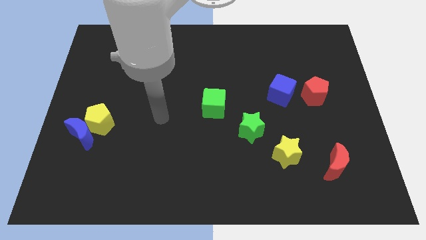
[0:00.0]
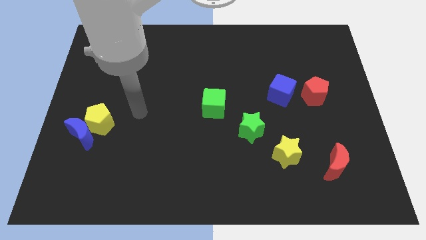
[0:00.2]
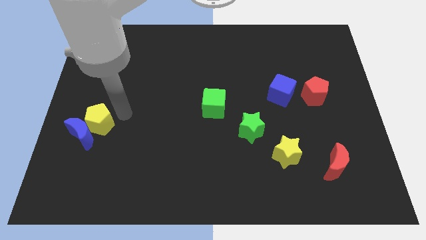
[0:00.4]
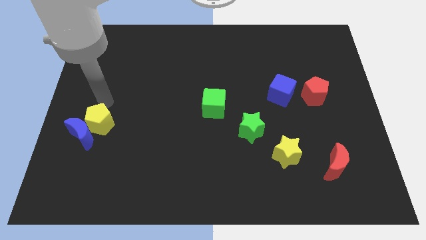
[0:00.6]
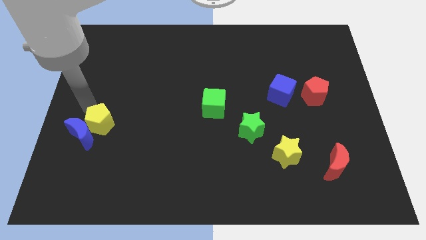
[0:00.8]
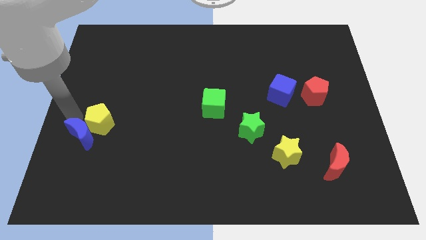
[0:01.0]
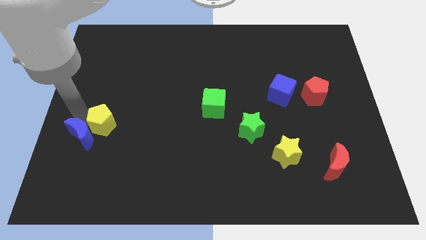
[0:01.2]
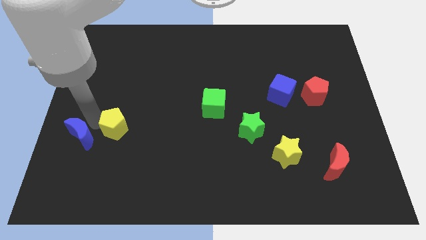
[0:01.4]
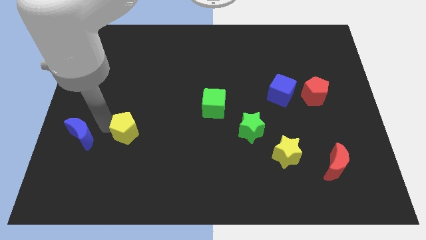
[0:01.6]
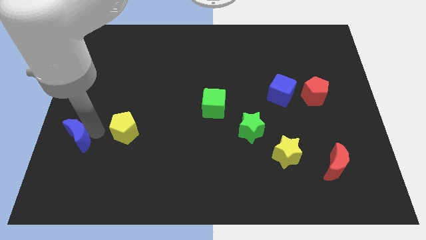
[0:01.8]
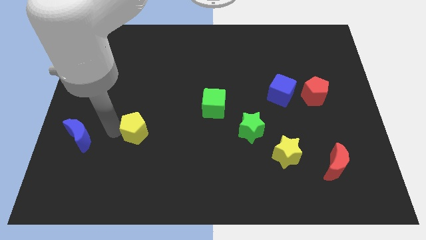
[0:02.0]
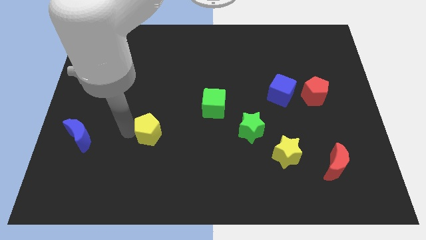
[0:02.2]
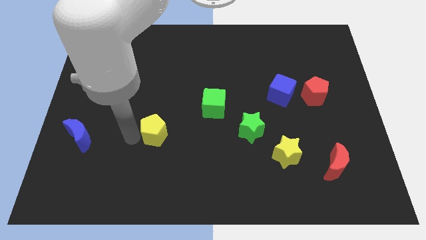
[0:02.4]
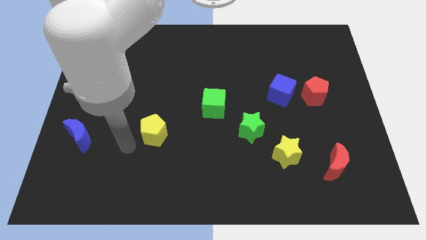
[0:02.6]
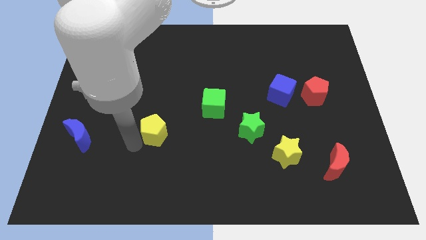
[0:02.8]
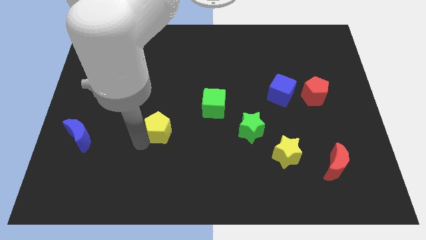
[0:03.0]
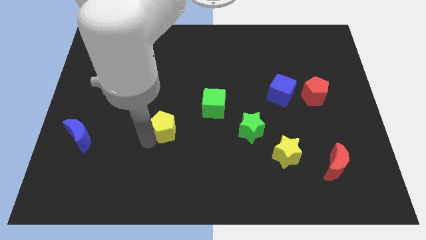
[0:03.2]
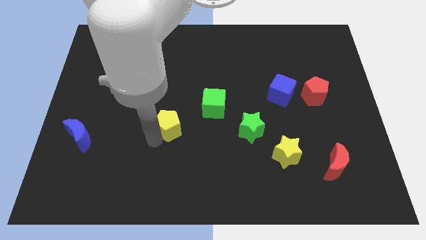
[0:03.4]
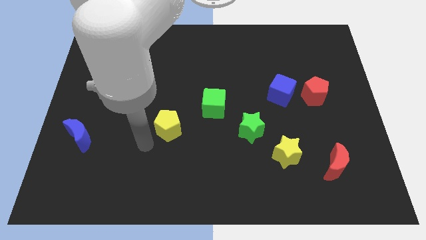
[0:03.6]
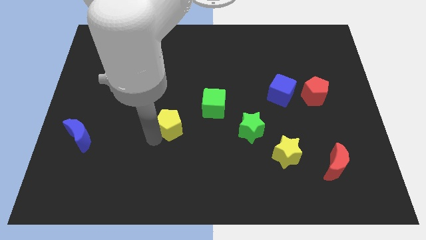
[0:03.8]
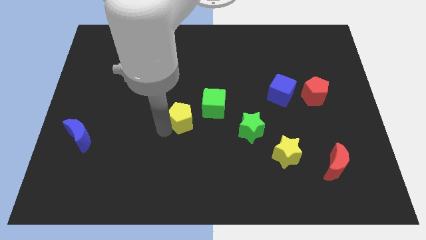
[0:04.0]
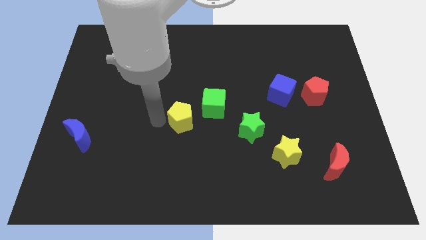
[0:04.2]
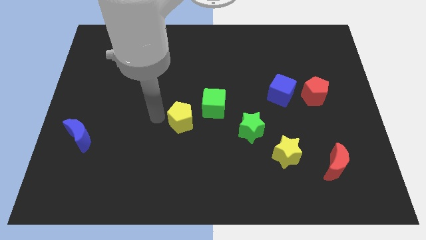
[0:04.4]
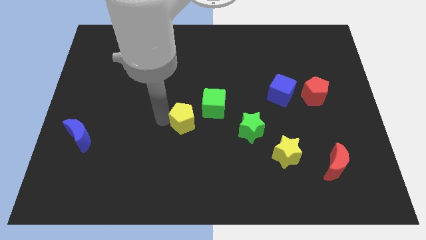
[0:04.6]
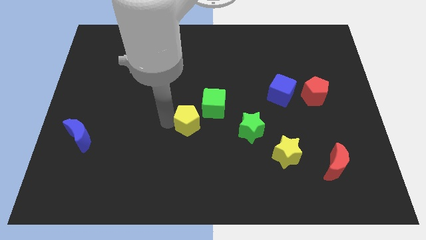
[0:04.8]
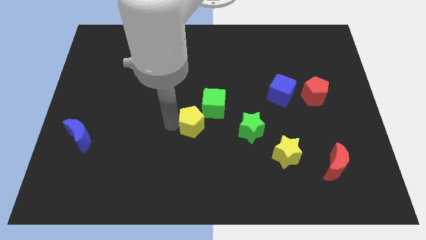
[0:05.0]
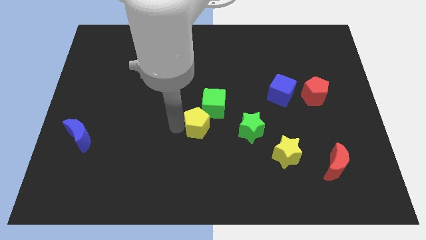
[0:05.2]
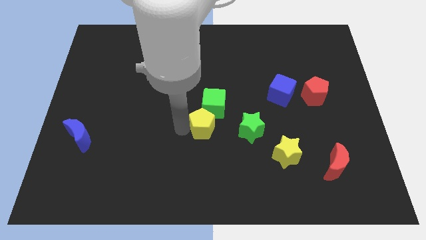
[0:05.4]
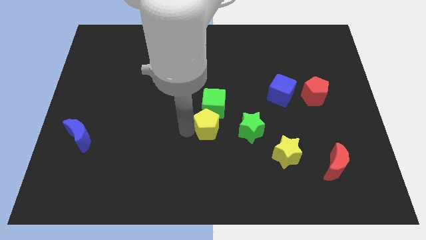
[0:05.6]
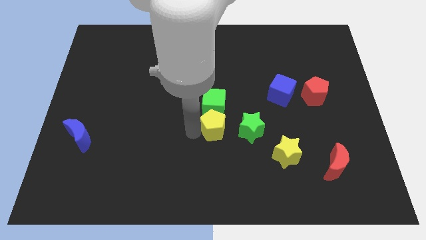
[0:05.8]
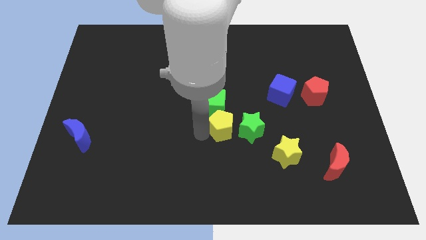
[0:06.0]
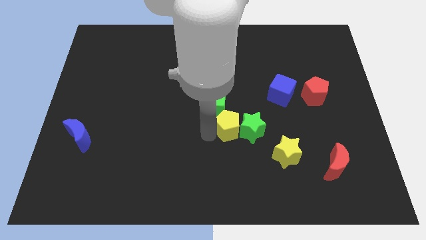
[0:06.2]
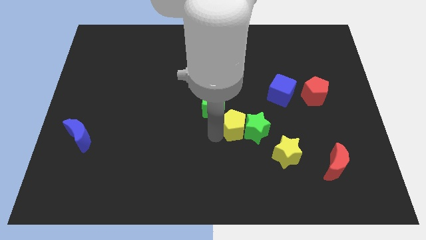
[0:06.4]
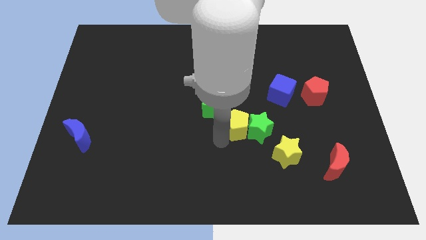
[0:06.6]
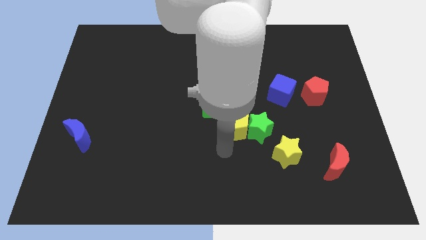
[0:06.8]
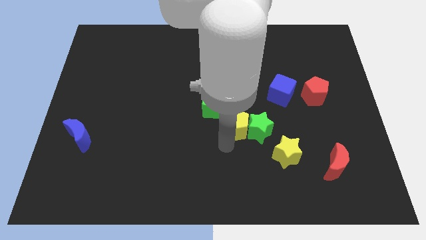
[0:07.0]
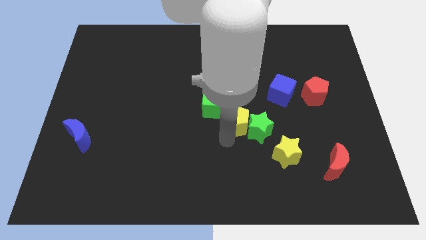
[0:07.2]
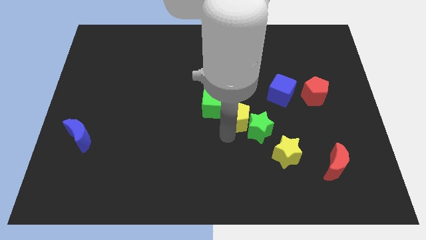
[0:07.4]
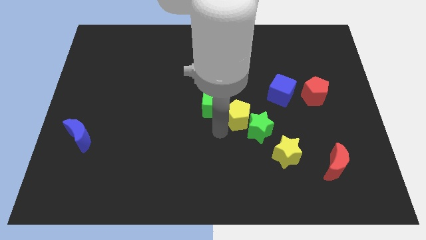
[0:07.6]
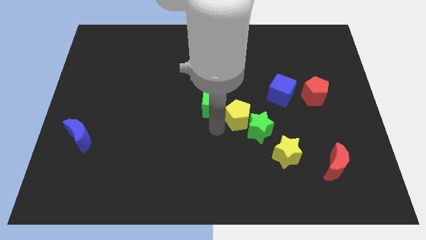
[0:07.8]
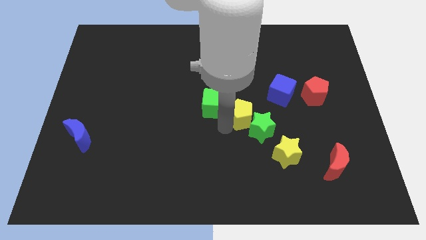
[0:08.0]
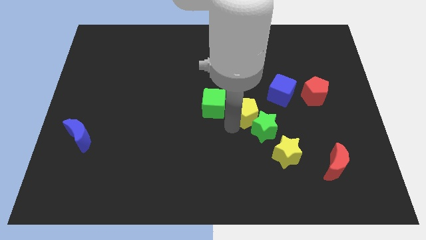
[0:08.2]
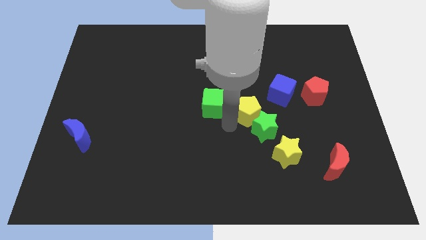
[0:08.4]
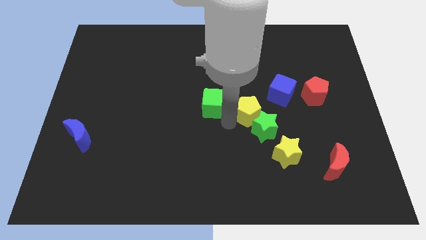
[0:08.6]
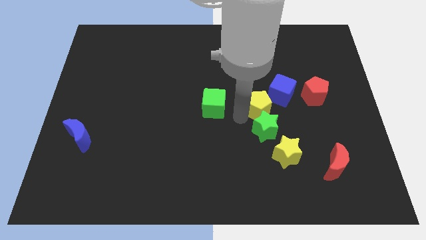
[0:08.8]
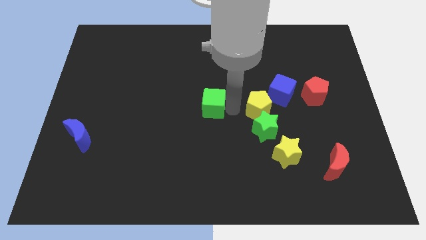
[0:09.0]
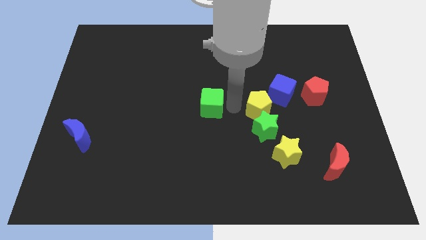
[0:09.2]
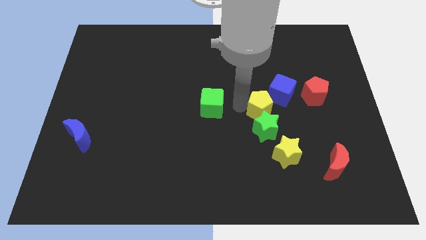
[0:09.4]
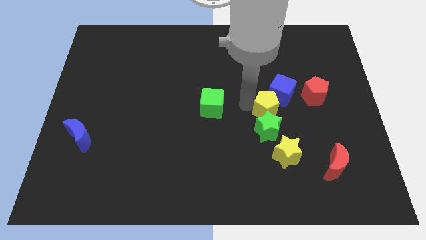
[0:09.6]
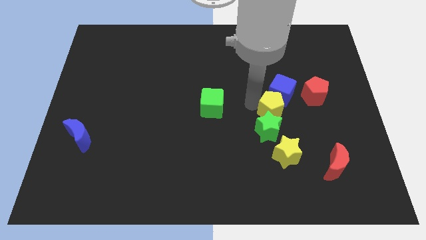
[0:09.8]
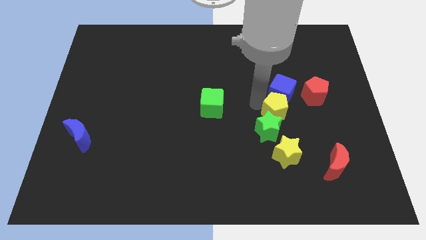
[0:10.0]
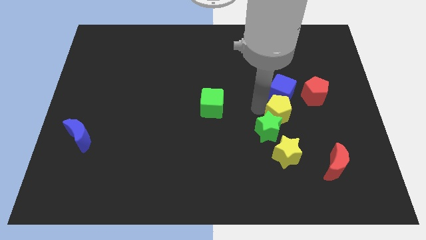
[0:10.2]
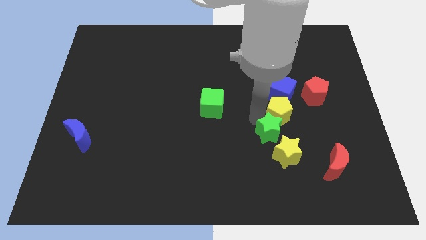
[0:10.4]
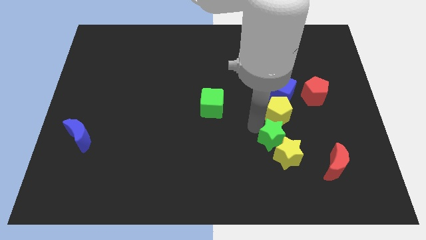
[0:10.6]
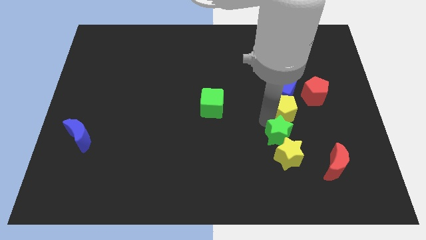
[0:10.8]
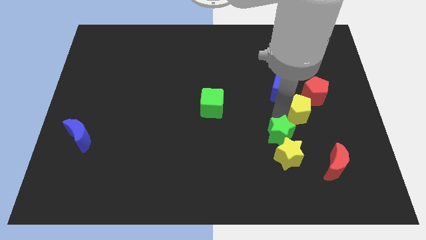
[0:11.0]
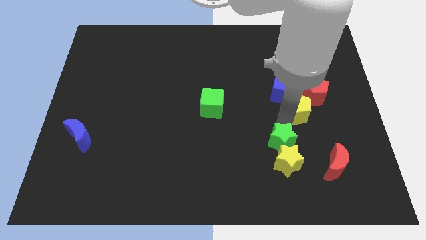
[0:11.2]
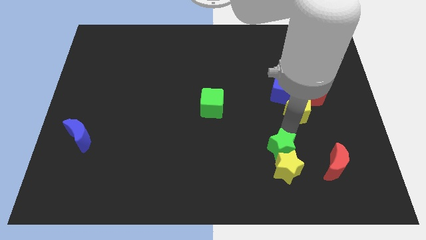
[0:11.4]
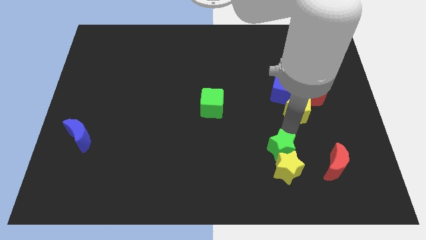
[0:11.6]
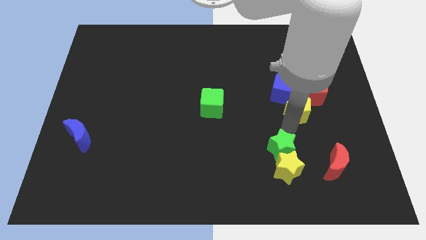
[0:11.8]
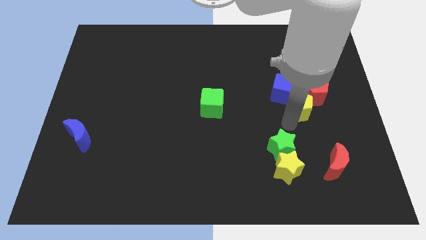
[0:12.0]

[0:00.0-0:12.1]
slide the yellow pentagon next to the red pentagon
